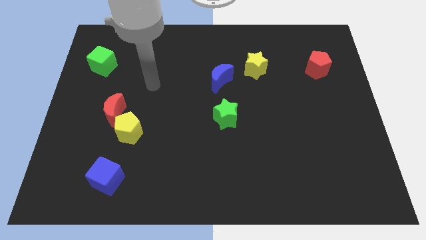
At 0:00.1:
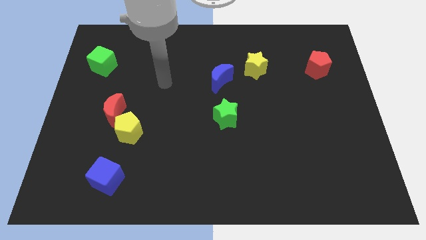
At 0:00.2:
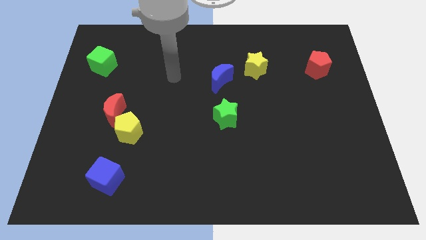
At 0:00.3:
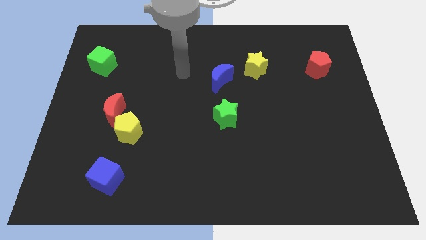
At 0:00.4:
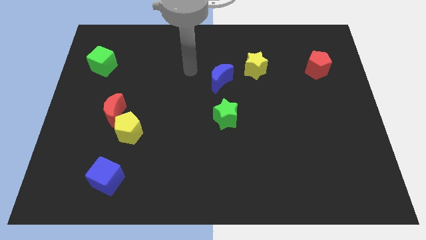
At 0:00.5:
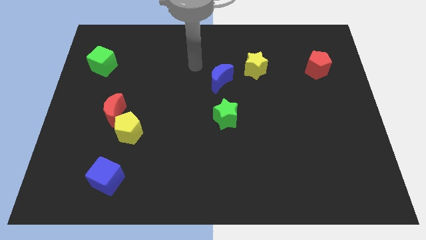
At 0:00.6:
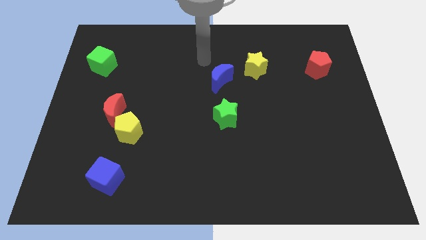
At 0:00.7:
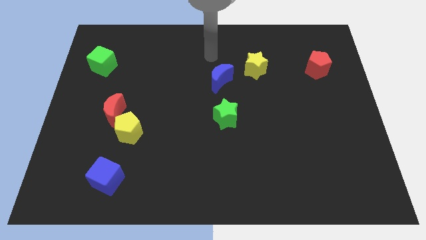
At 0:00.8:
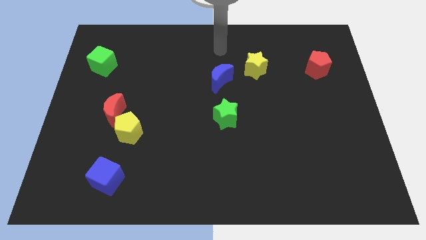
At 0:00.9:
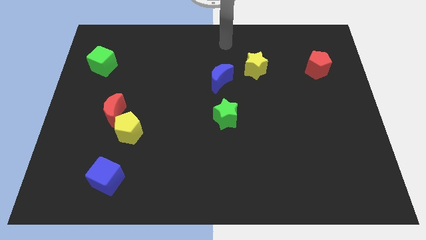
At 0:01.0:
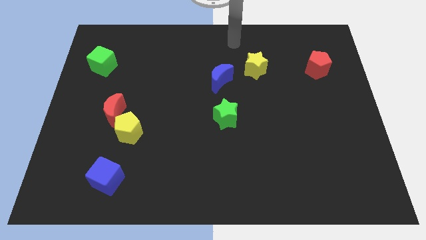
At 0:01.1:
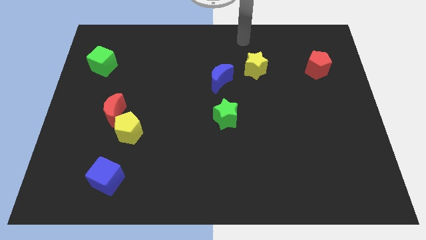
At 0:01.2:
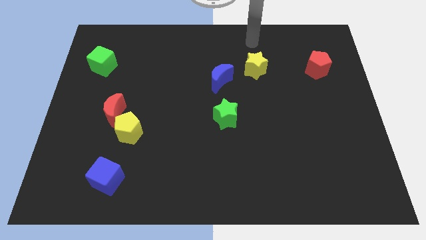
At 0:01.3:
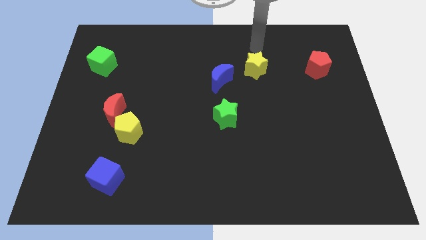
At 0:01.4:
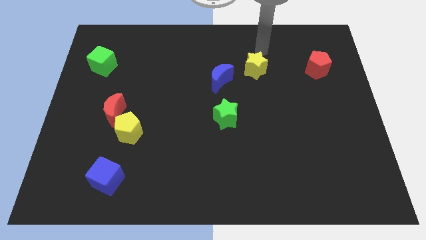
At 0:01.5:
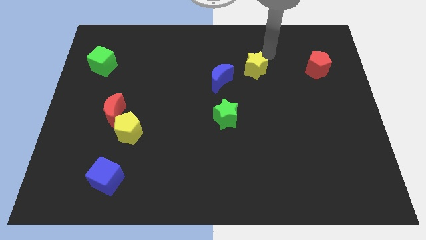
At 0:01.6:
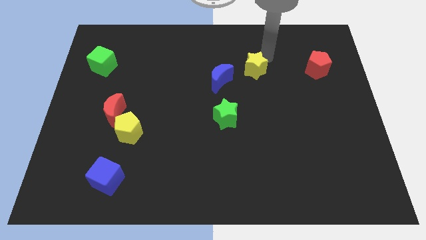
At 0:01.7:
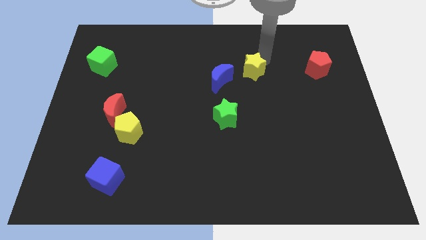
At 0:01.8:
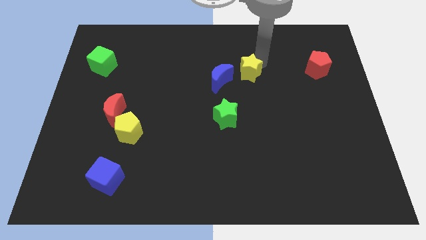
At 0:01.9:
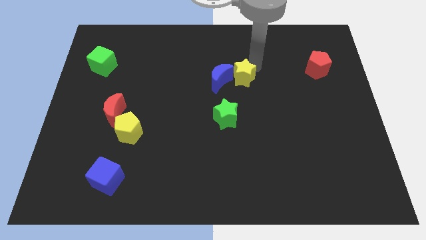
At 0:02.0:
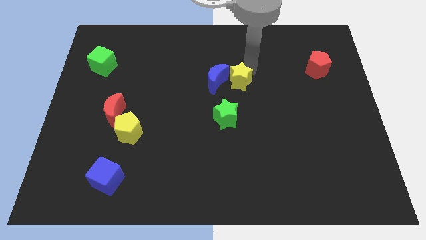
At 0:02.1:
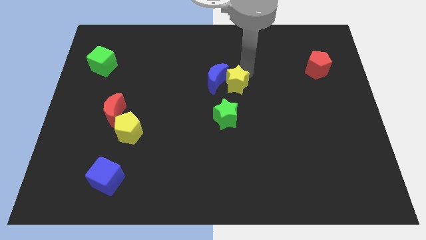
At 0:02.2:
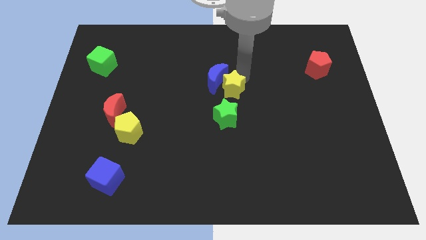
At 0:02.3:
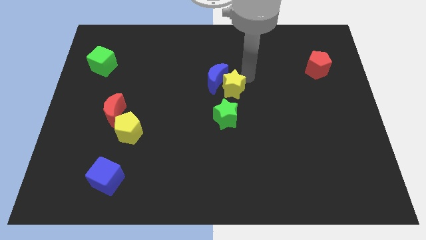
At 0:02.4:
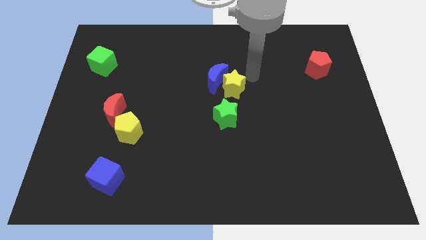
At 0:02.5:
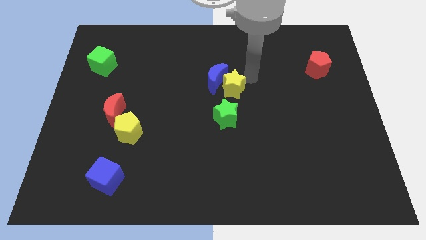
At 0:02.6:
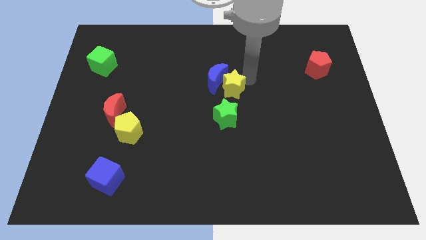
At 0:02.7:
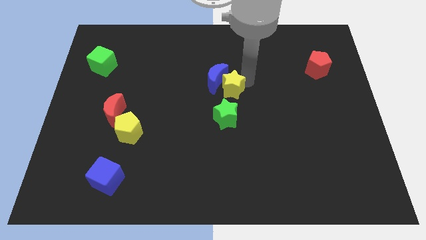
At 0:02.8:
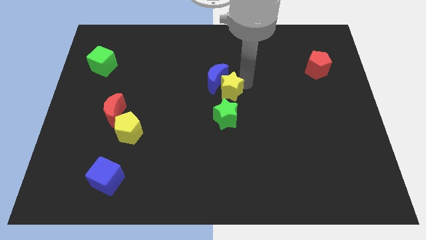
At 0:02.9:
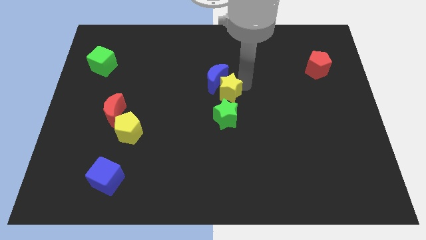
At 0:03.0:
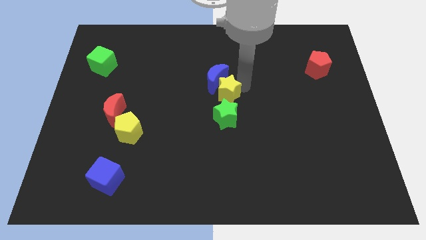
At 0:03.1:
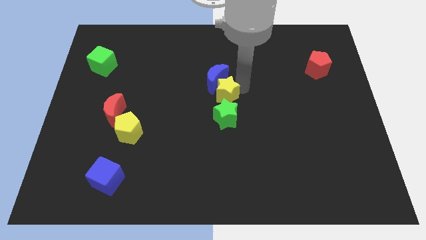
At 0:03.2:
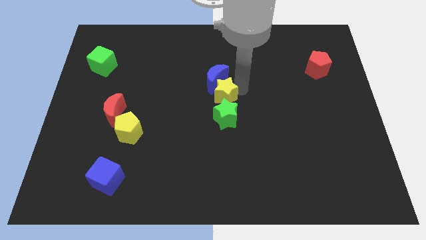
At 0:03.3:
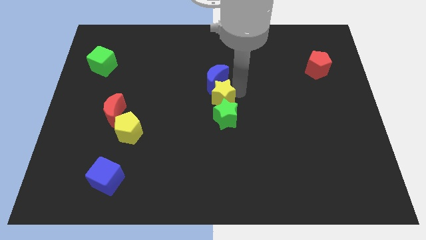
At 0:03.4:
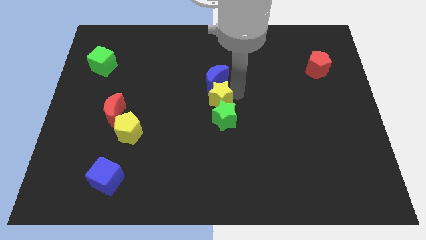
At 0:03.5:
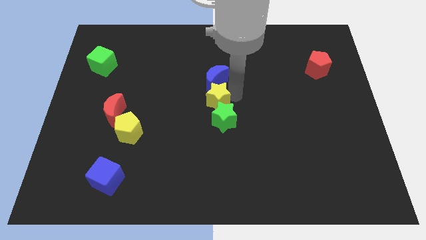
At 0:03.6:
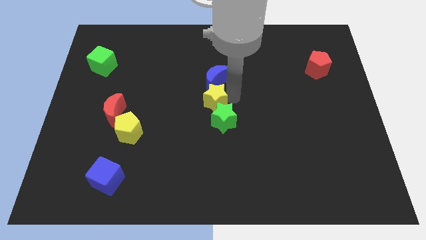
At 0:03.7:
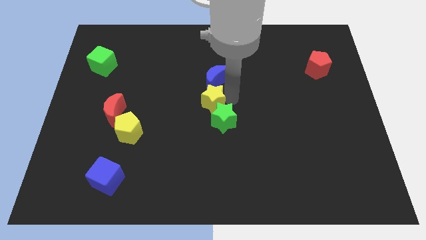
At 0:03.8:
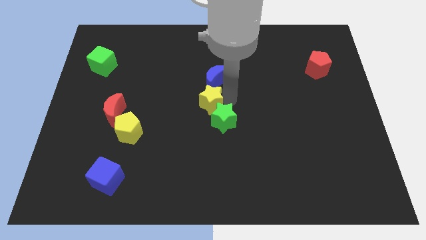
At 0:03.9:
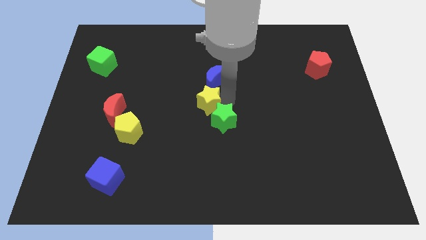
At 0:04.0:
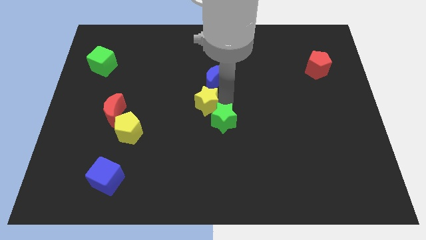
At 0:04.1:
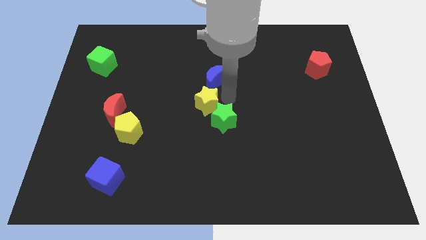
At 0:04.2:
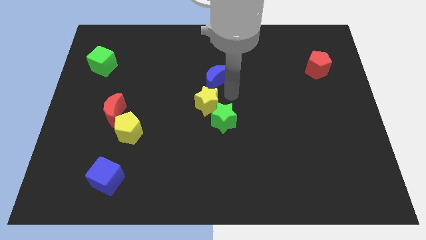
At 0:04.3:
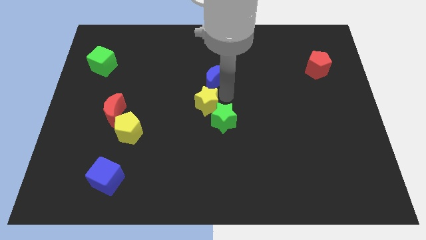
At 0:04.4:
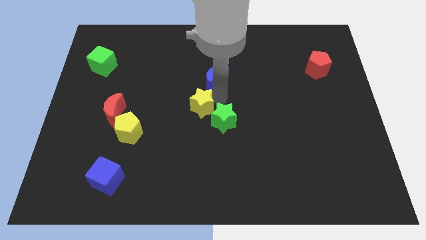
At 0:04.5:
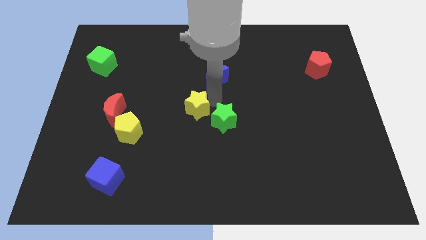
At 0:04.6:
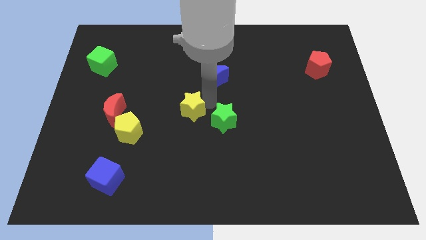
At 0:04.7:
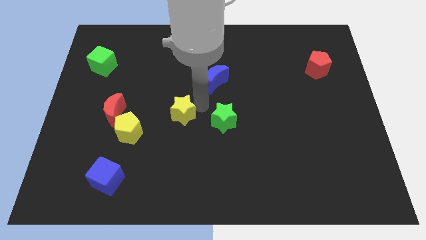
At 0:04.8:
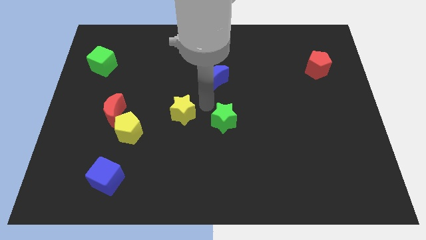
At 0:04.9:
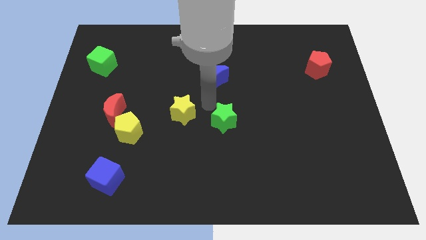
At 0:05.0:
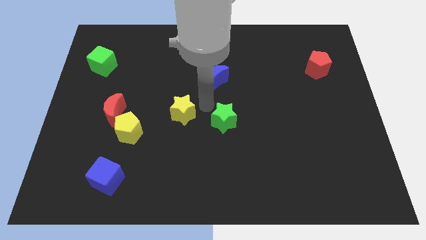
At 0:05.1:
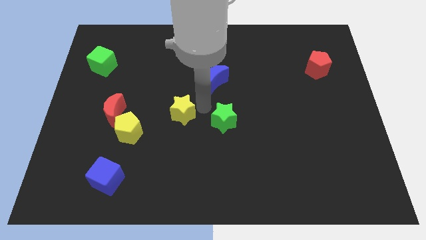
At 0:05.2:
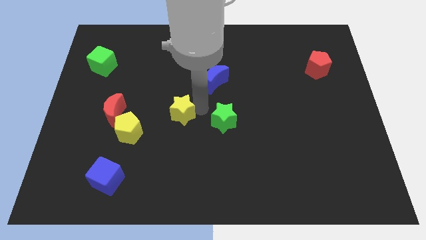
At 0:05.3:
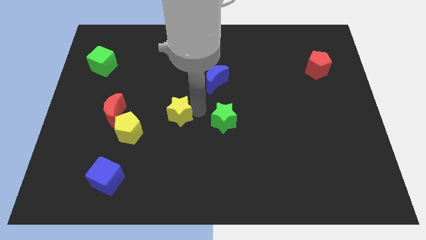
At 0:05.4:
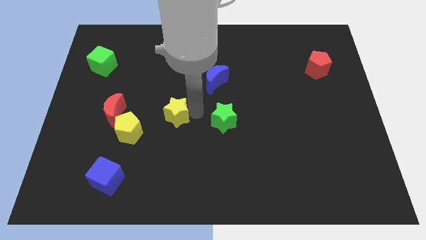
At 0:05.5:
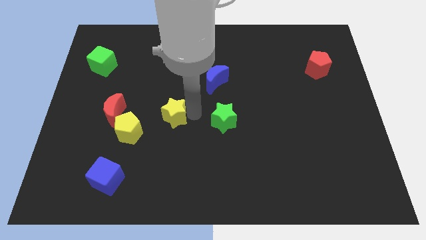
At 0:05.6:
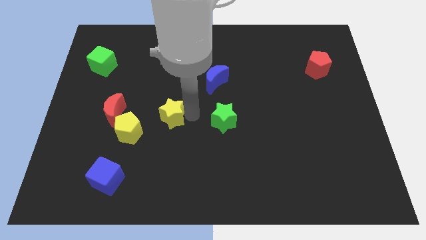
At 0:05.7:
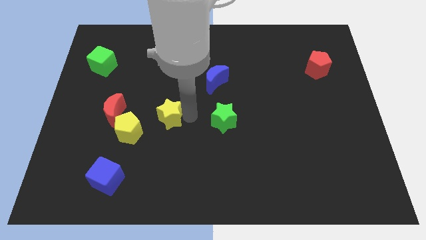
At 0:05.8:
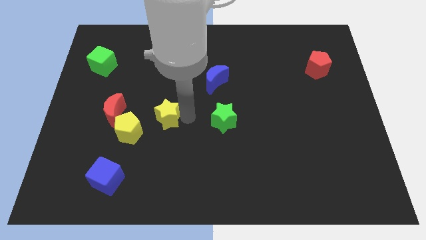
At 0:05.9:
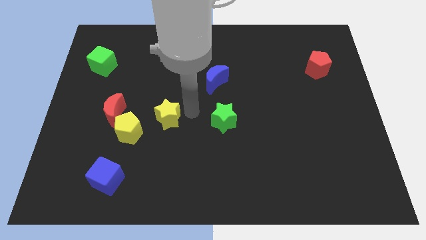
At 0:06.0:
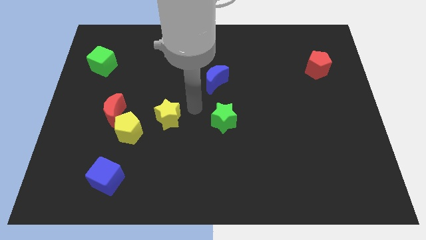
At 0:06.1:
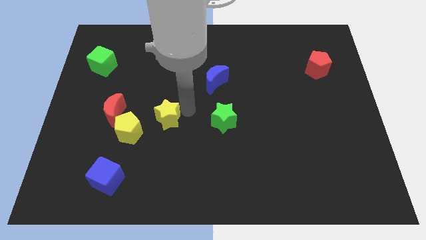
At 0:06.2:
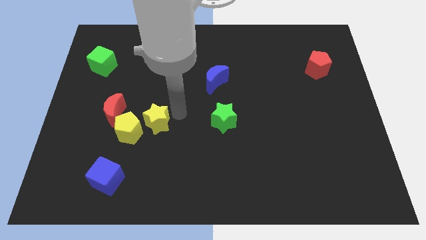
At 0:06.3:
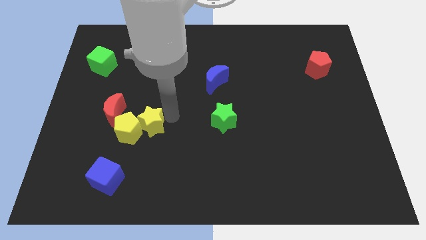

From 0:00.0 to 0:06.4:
move the yellow star next to the yellow pentagon
